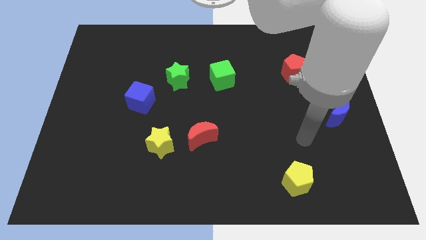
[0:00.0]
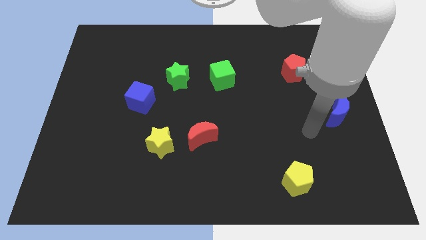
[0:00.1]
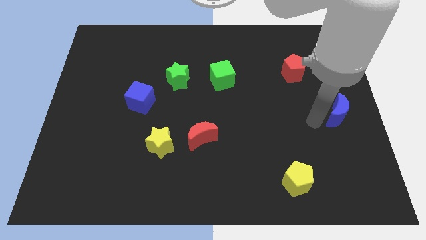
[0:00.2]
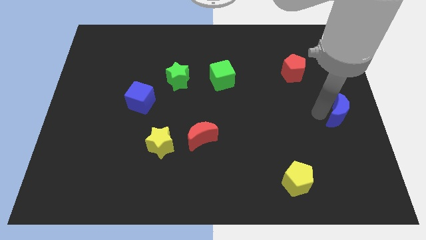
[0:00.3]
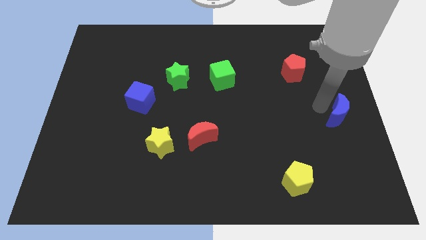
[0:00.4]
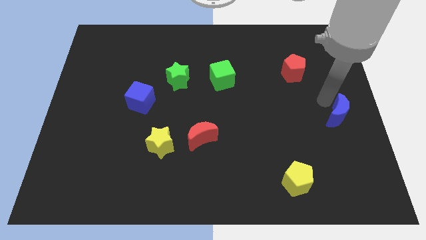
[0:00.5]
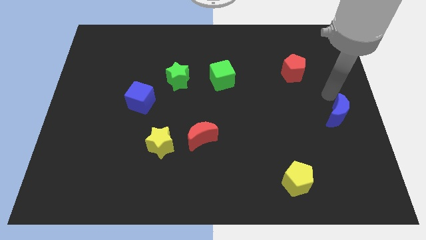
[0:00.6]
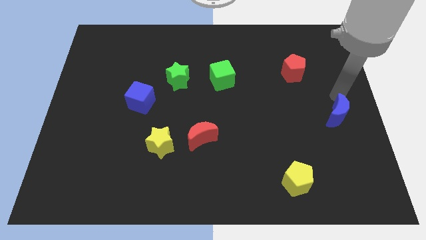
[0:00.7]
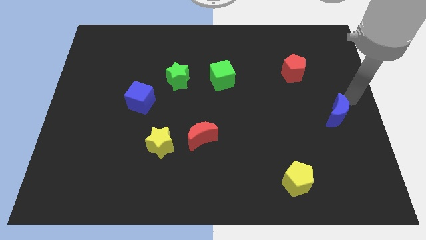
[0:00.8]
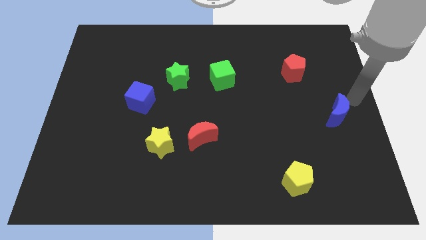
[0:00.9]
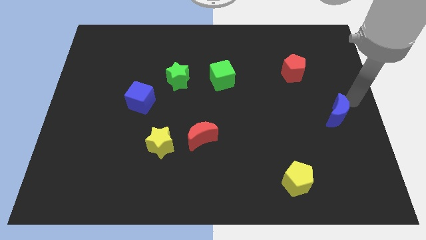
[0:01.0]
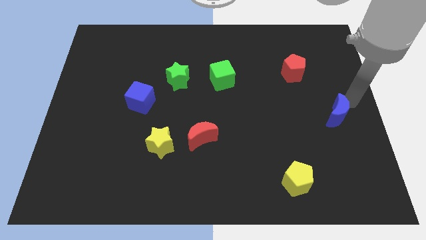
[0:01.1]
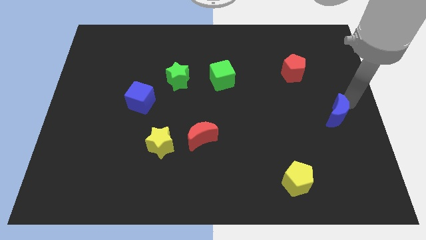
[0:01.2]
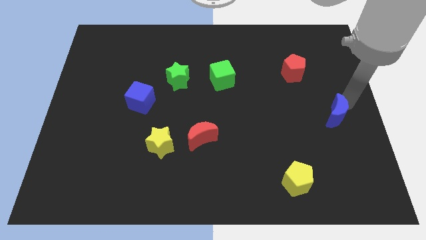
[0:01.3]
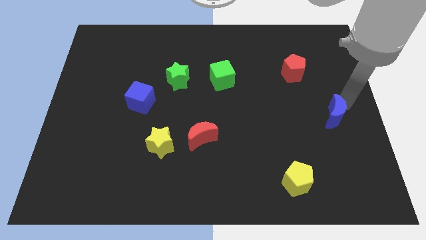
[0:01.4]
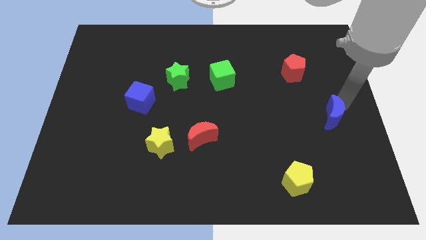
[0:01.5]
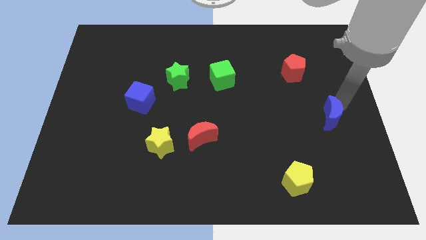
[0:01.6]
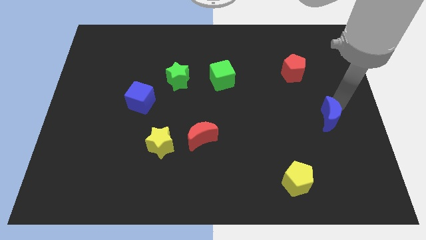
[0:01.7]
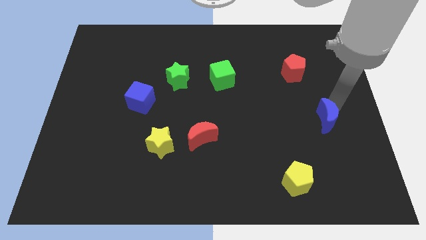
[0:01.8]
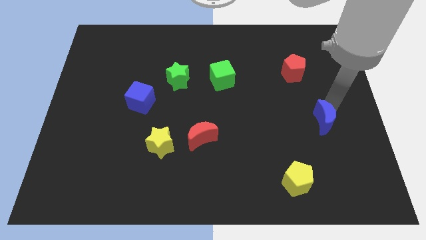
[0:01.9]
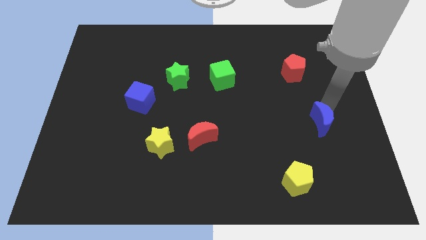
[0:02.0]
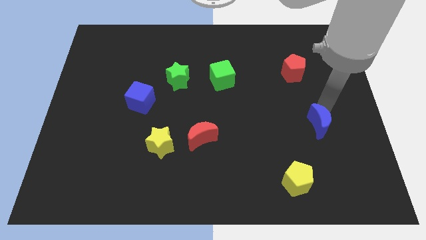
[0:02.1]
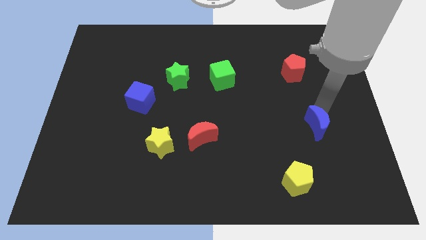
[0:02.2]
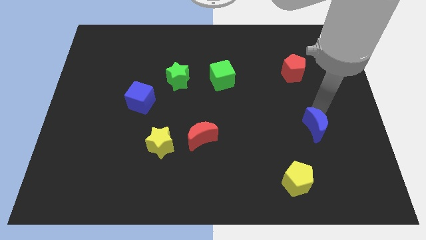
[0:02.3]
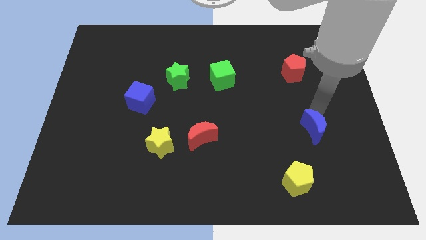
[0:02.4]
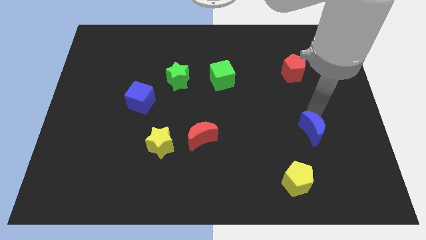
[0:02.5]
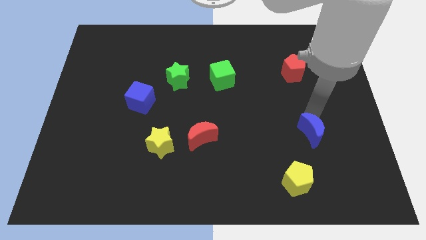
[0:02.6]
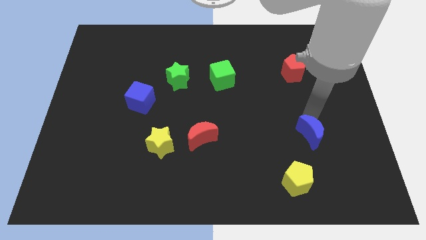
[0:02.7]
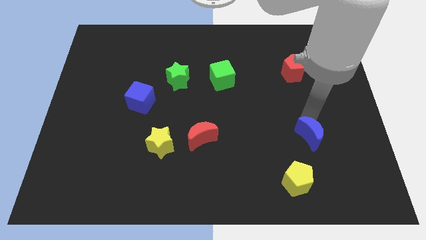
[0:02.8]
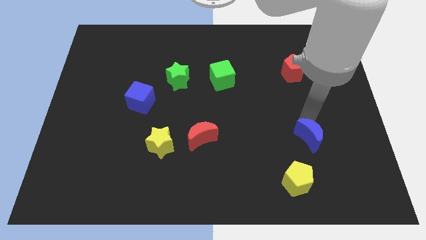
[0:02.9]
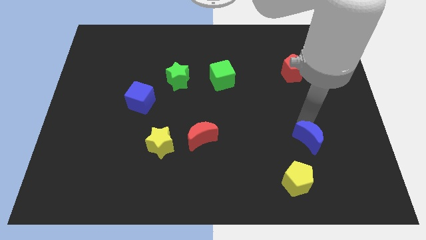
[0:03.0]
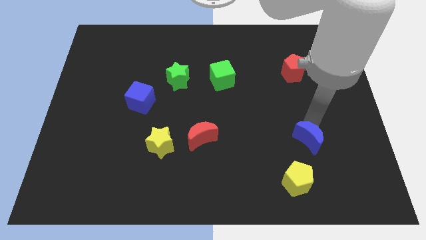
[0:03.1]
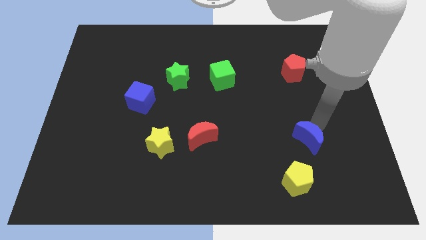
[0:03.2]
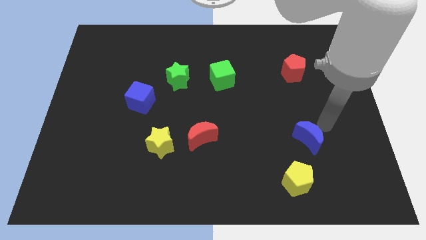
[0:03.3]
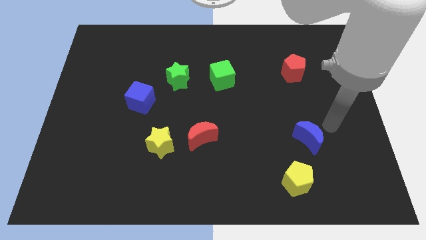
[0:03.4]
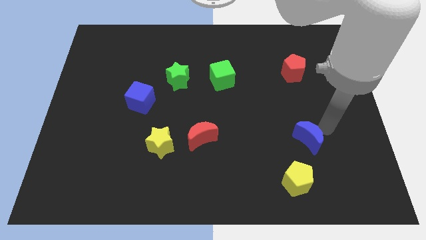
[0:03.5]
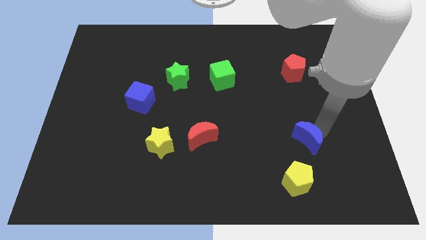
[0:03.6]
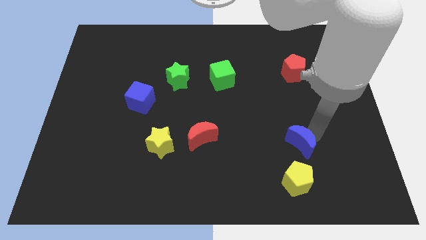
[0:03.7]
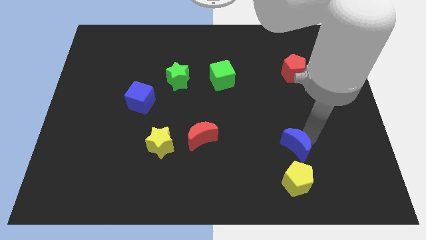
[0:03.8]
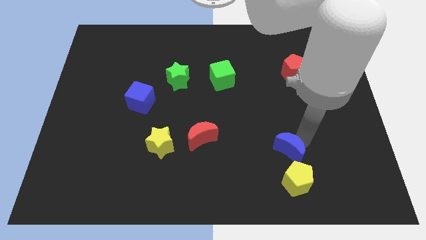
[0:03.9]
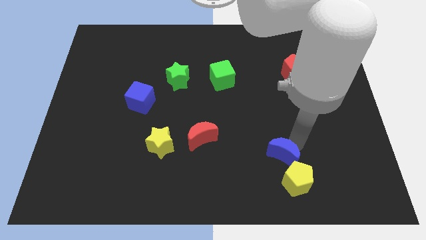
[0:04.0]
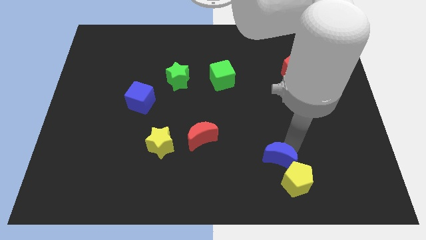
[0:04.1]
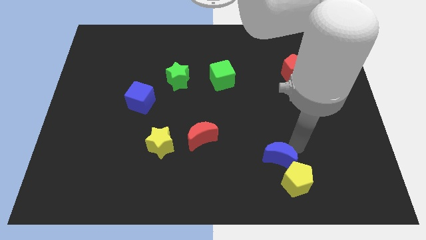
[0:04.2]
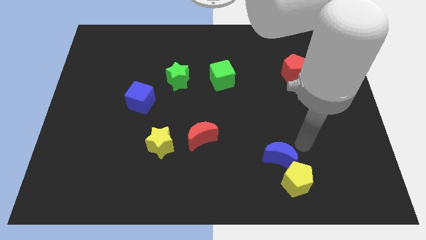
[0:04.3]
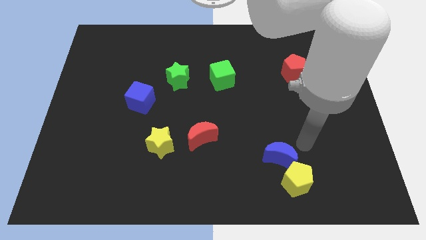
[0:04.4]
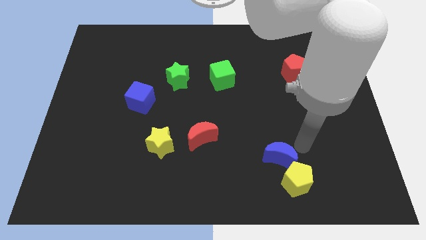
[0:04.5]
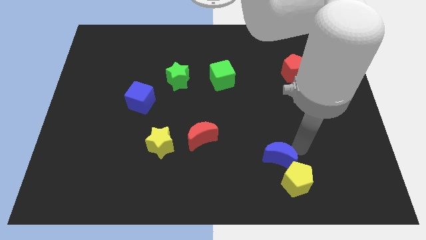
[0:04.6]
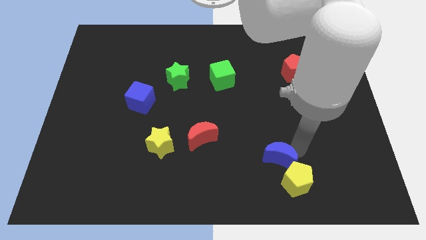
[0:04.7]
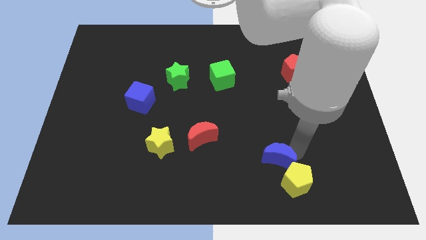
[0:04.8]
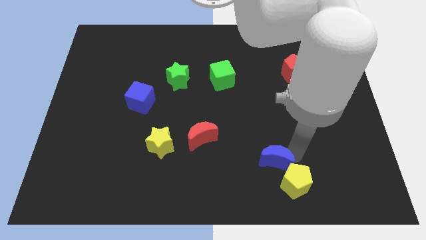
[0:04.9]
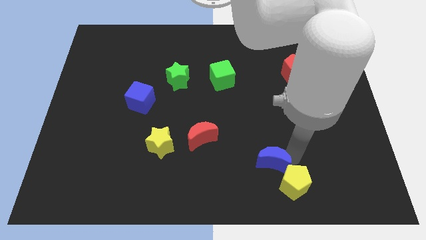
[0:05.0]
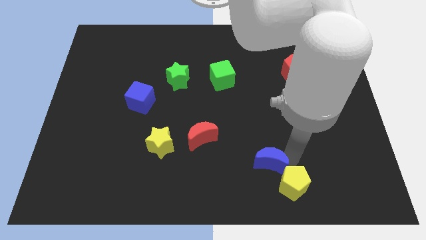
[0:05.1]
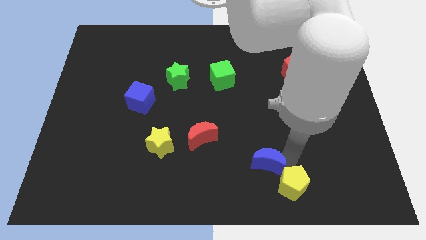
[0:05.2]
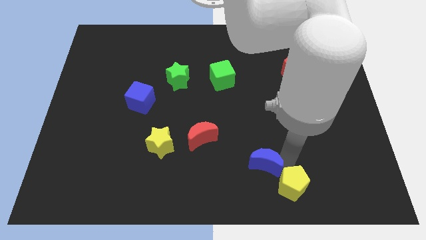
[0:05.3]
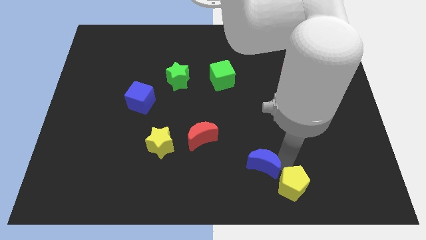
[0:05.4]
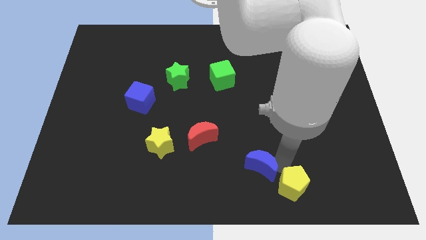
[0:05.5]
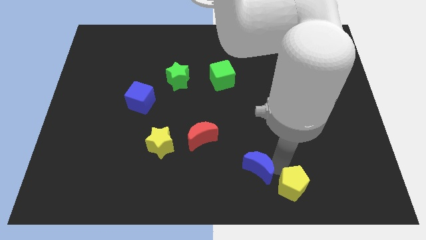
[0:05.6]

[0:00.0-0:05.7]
move the blue moon to the bottom side

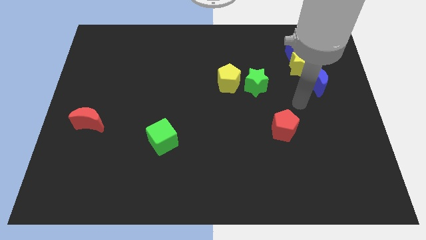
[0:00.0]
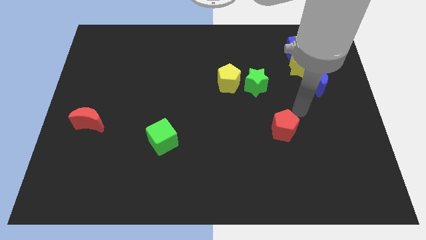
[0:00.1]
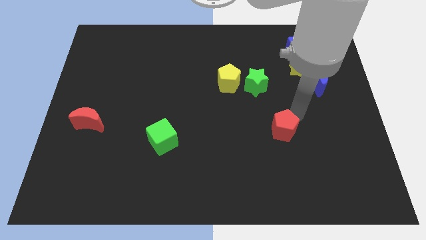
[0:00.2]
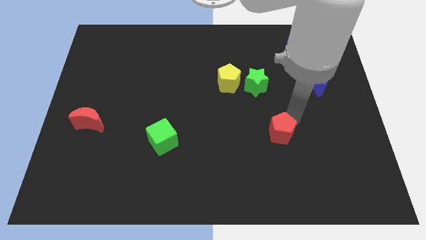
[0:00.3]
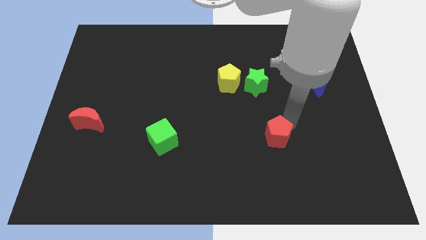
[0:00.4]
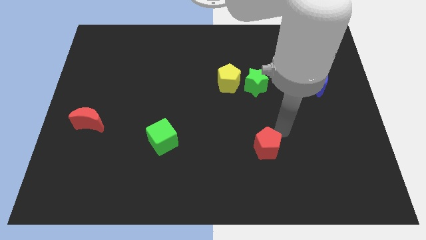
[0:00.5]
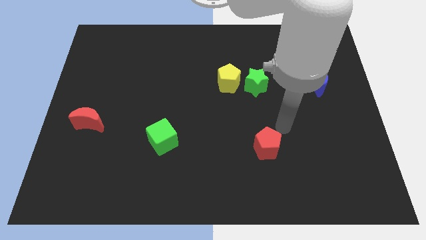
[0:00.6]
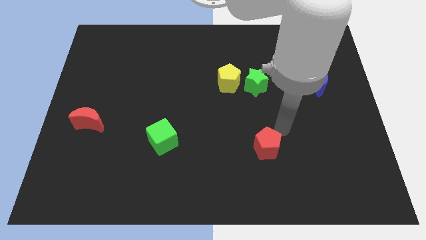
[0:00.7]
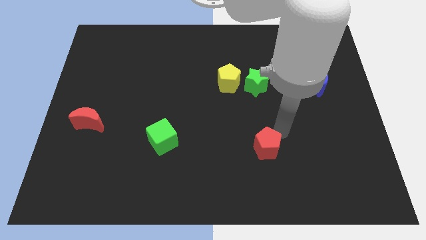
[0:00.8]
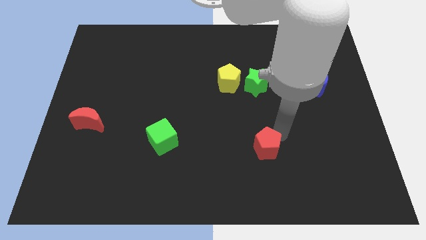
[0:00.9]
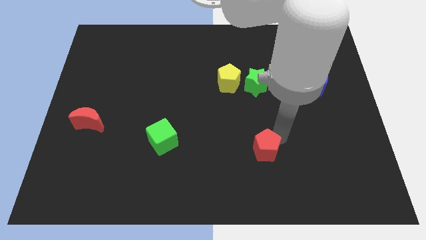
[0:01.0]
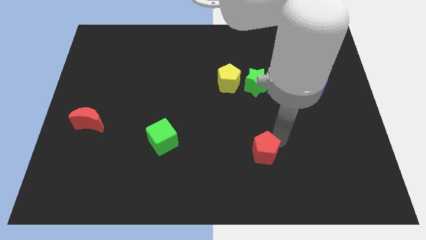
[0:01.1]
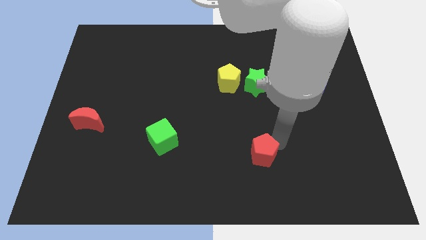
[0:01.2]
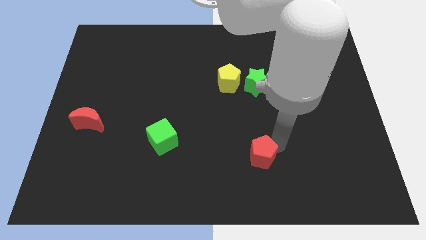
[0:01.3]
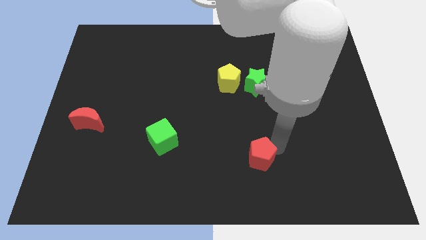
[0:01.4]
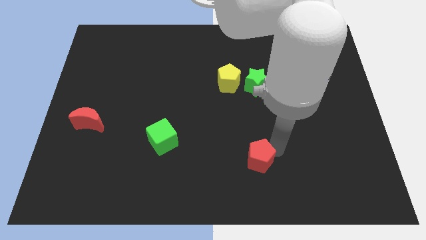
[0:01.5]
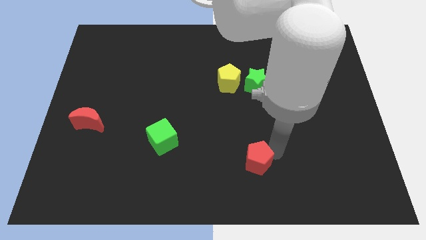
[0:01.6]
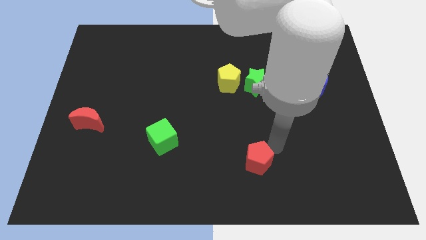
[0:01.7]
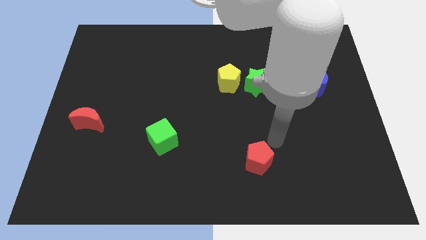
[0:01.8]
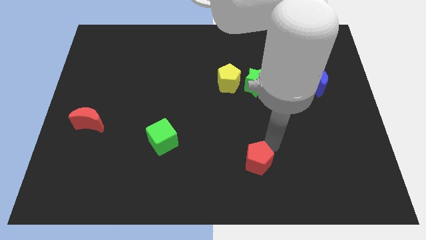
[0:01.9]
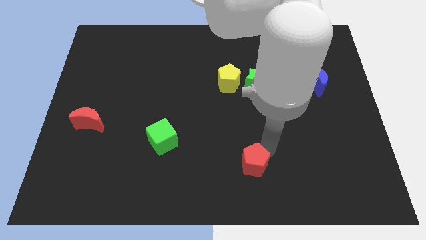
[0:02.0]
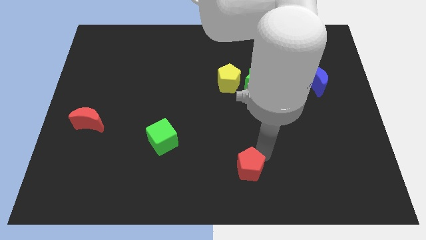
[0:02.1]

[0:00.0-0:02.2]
slide the red pentagon to the bottom
